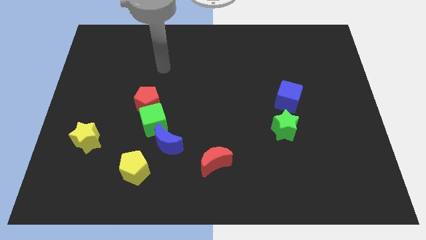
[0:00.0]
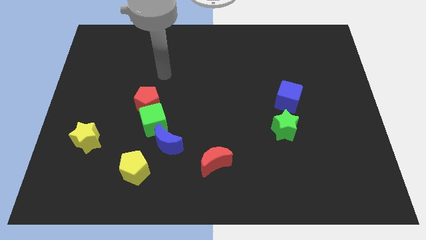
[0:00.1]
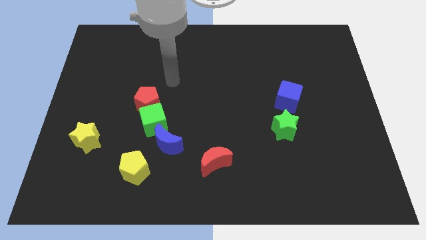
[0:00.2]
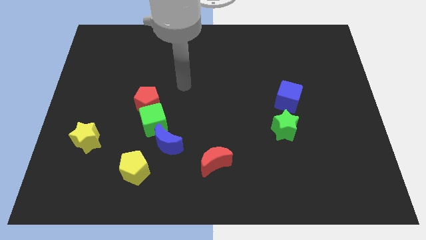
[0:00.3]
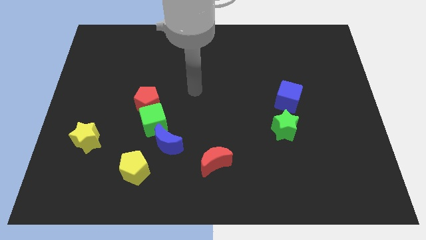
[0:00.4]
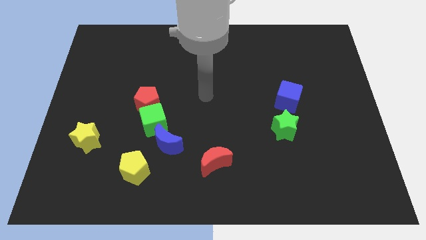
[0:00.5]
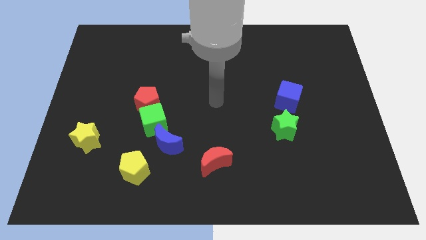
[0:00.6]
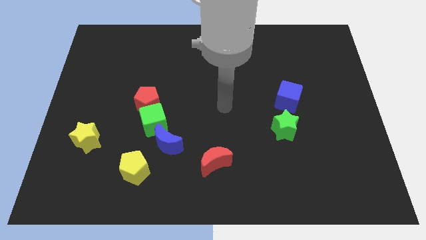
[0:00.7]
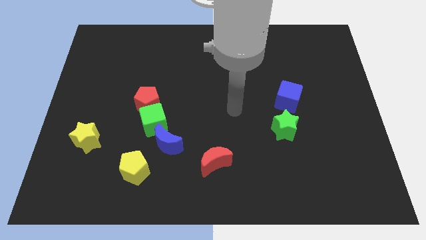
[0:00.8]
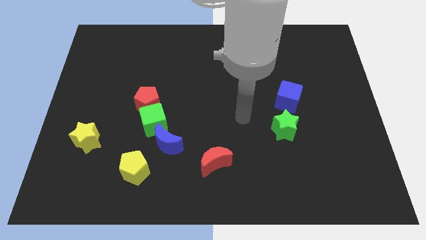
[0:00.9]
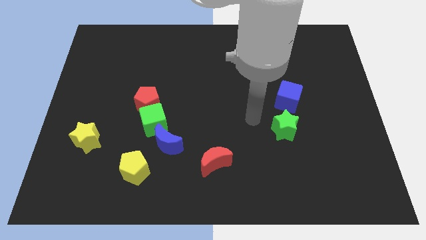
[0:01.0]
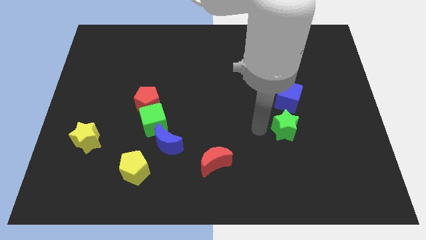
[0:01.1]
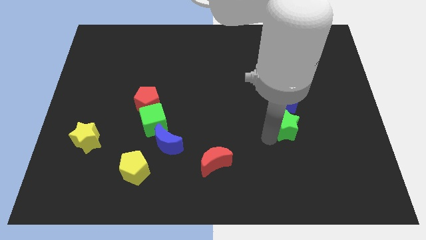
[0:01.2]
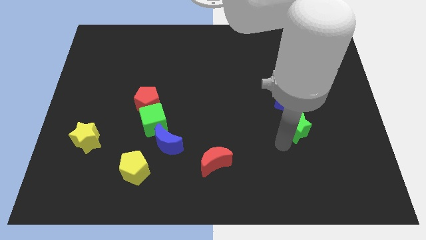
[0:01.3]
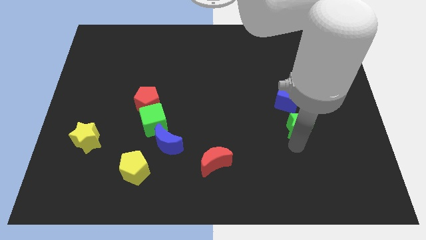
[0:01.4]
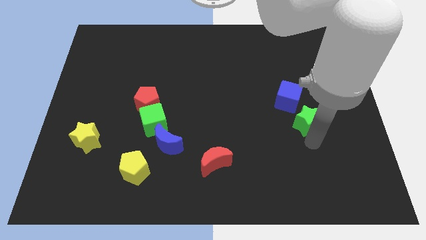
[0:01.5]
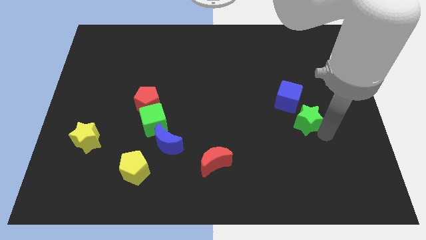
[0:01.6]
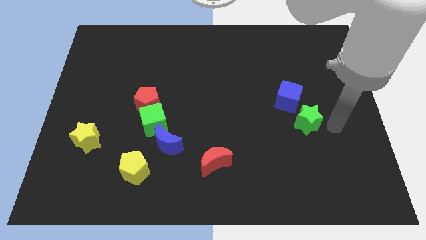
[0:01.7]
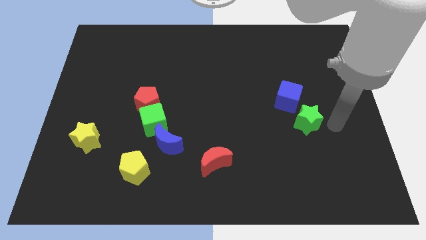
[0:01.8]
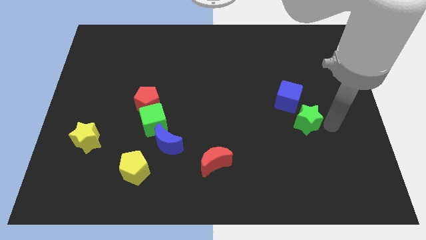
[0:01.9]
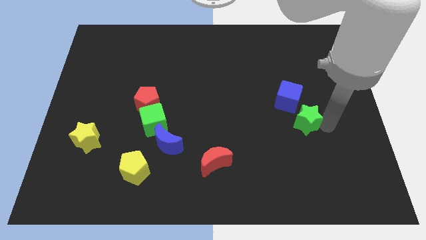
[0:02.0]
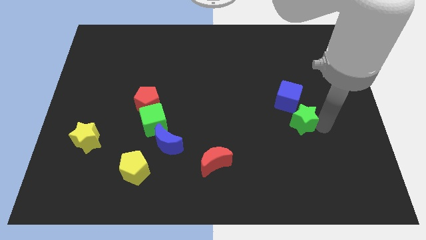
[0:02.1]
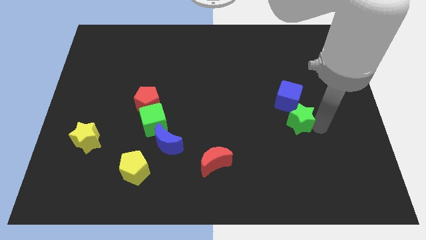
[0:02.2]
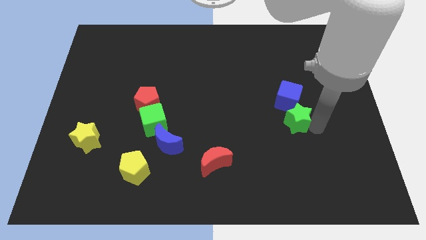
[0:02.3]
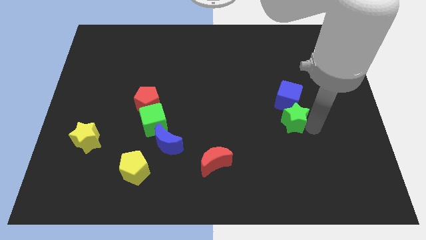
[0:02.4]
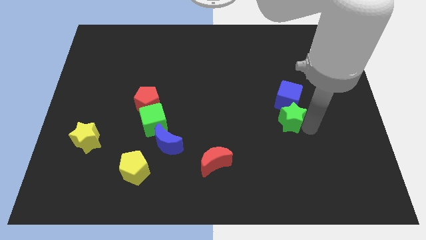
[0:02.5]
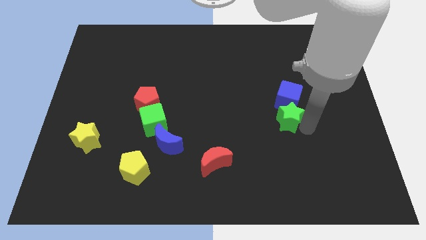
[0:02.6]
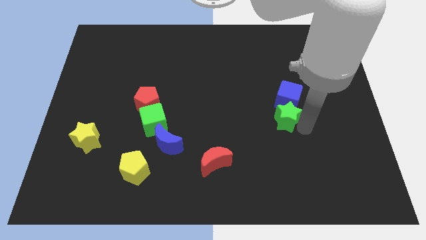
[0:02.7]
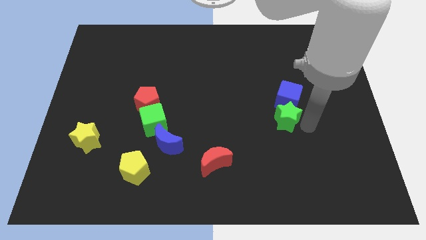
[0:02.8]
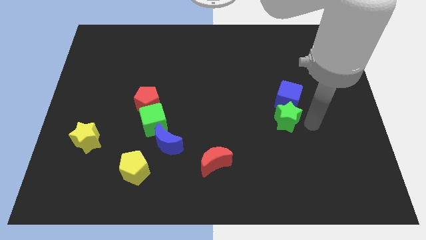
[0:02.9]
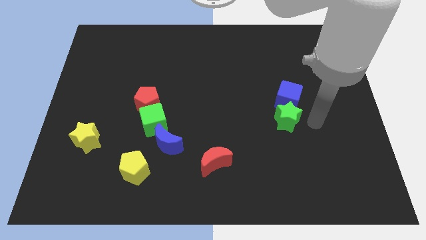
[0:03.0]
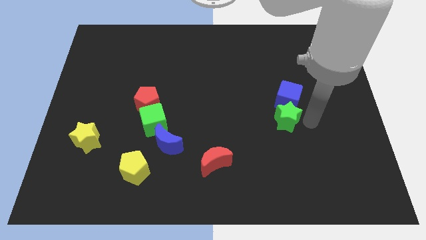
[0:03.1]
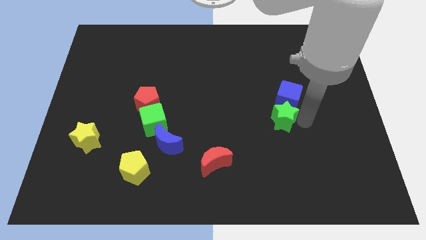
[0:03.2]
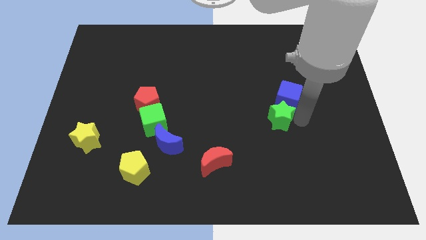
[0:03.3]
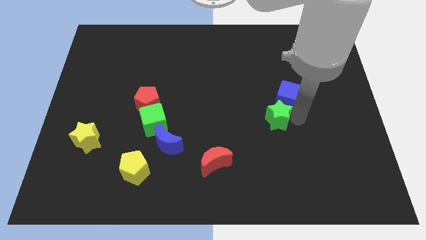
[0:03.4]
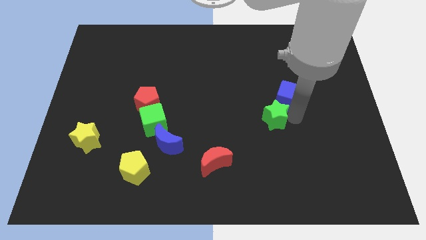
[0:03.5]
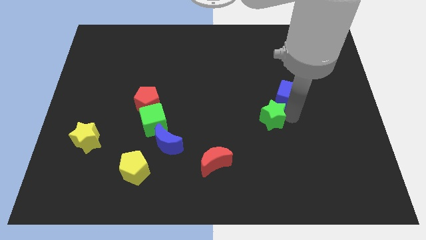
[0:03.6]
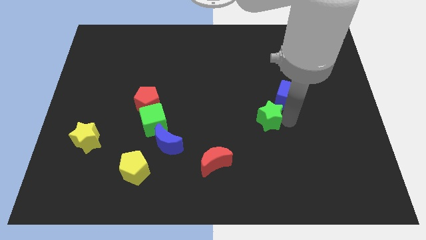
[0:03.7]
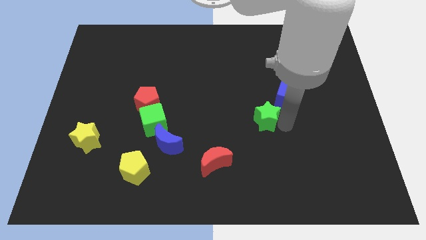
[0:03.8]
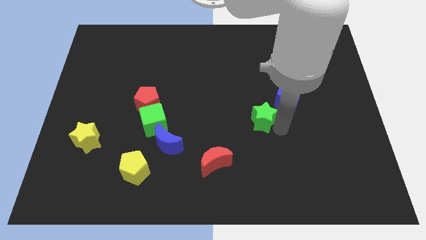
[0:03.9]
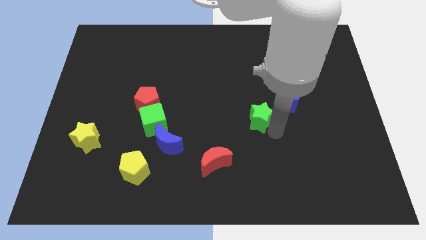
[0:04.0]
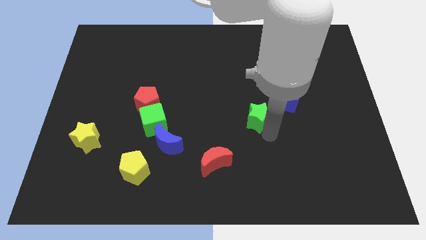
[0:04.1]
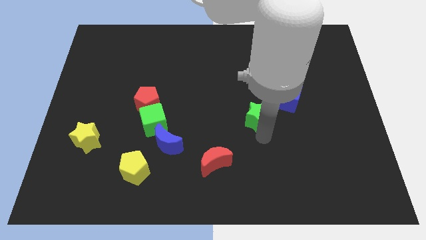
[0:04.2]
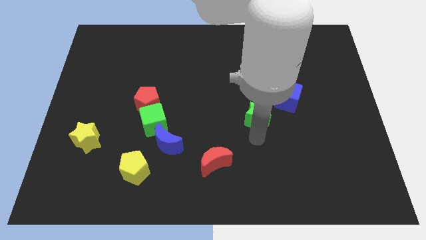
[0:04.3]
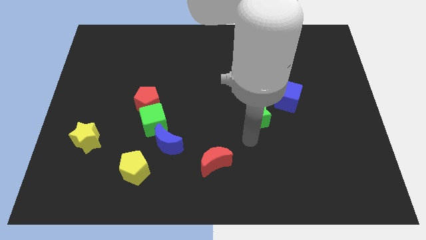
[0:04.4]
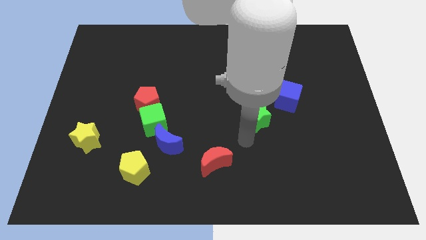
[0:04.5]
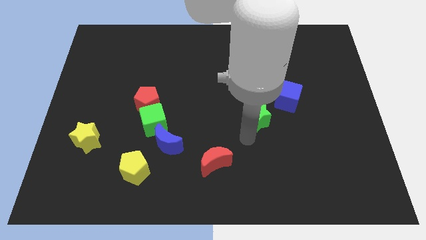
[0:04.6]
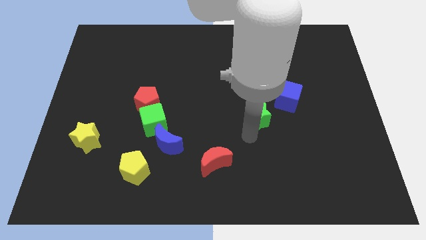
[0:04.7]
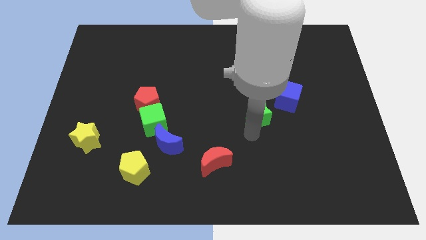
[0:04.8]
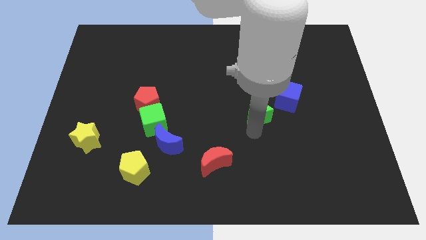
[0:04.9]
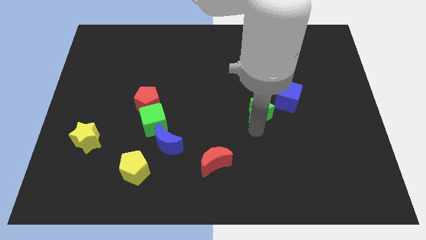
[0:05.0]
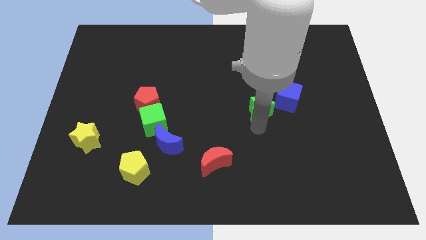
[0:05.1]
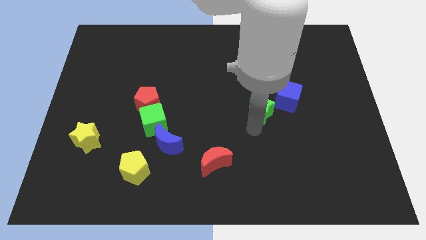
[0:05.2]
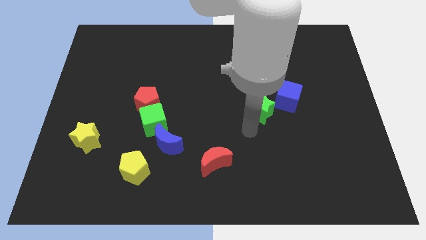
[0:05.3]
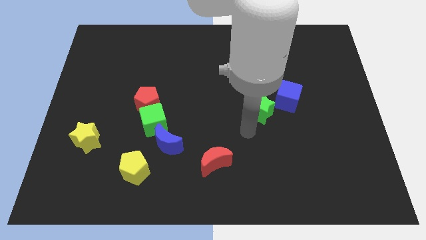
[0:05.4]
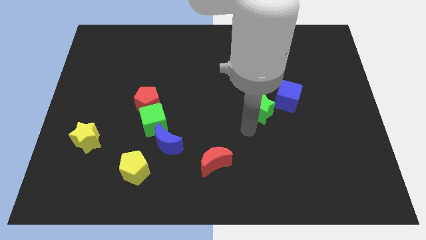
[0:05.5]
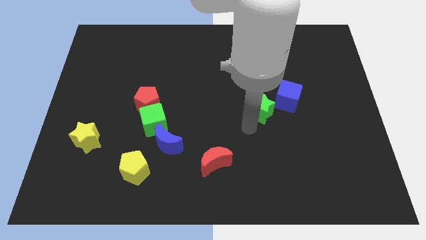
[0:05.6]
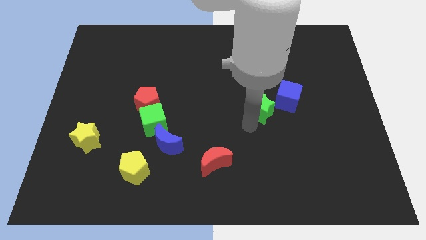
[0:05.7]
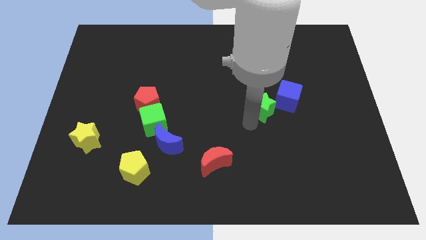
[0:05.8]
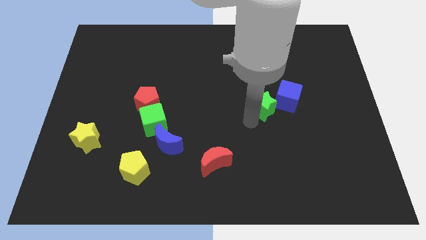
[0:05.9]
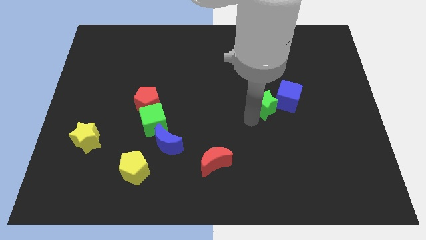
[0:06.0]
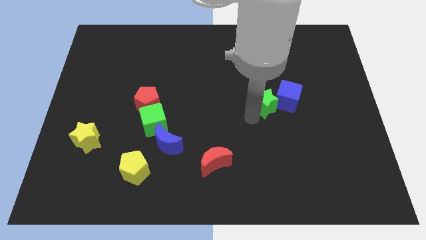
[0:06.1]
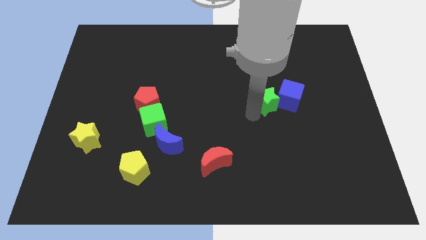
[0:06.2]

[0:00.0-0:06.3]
push the green star slightly up

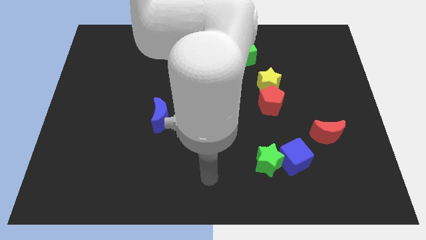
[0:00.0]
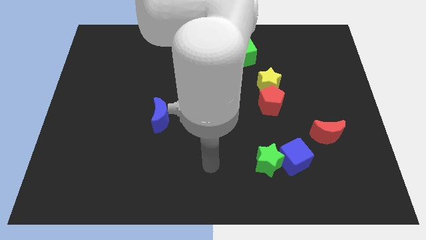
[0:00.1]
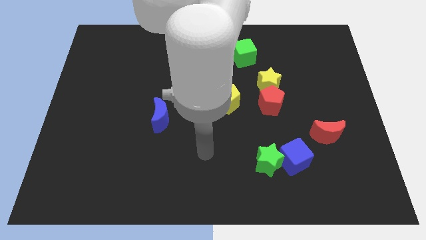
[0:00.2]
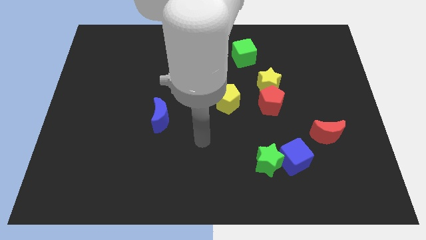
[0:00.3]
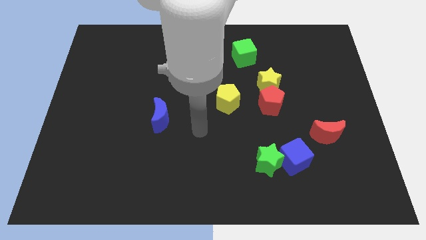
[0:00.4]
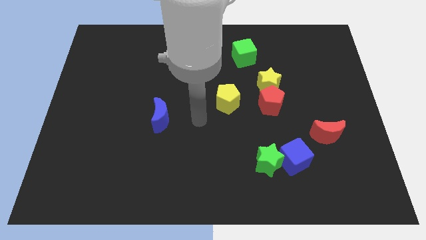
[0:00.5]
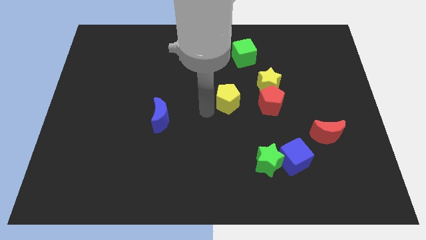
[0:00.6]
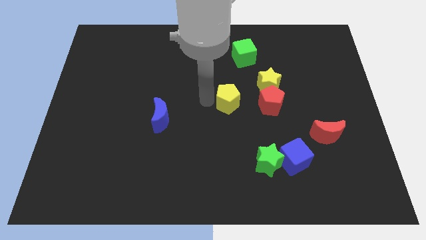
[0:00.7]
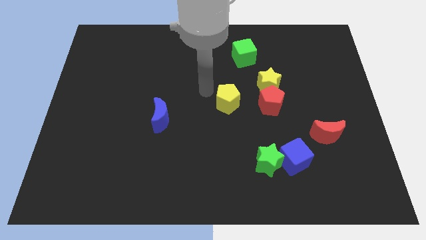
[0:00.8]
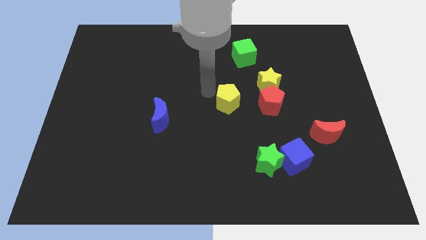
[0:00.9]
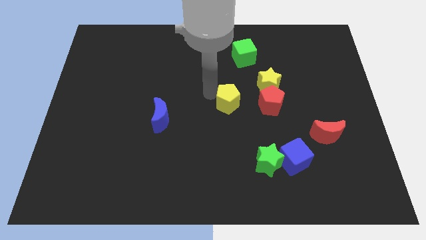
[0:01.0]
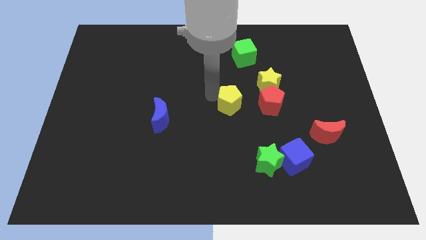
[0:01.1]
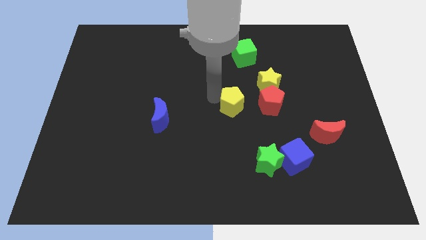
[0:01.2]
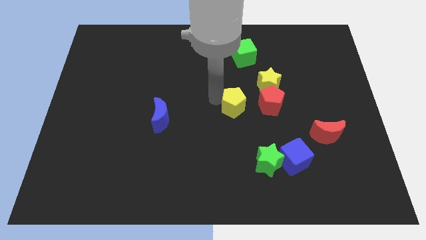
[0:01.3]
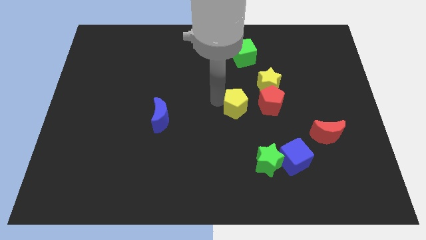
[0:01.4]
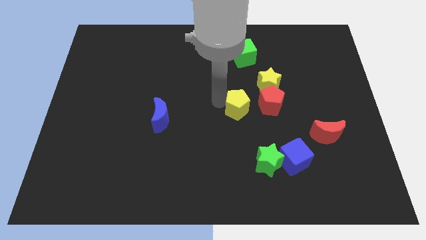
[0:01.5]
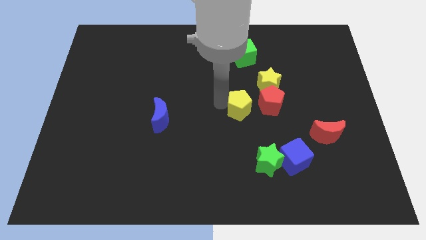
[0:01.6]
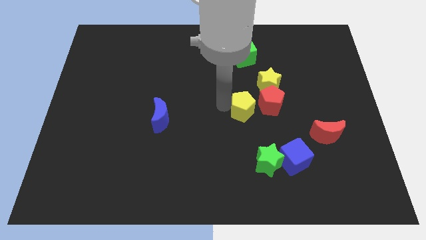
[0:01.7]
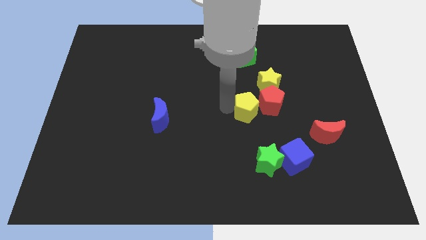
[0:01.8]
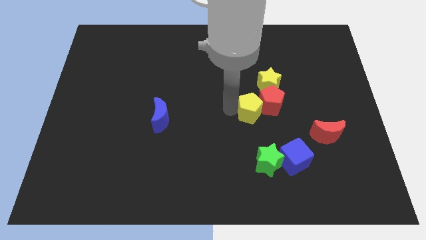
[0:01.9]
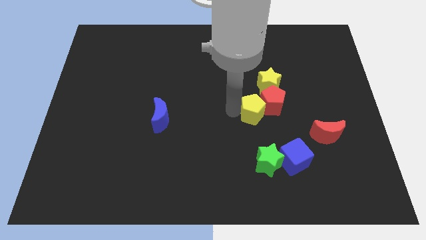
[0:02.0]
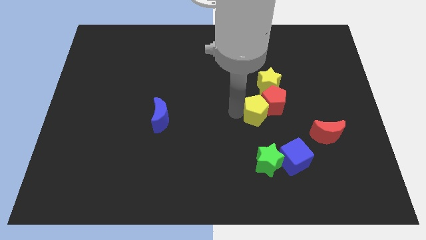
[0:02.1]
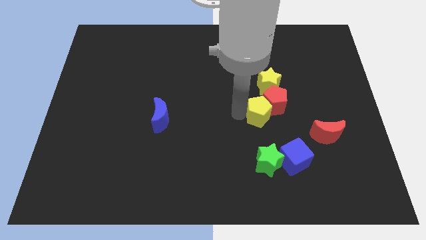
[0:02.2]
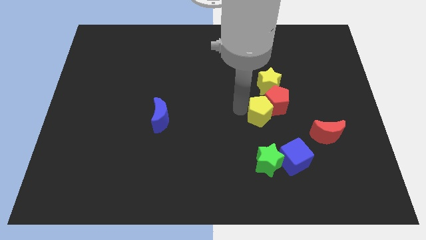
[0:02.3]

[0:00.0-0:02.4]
push the yellow pentagon slightly right
